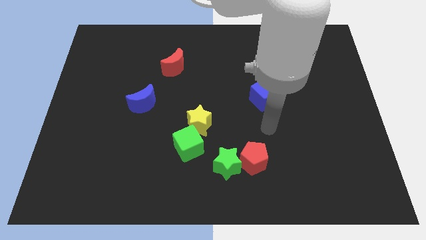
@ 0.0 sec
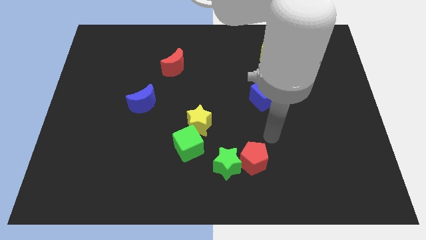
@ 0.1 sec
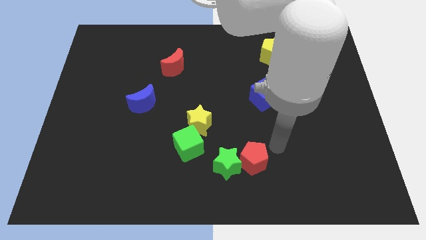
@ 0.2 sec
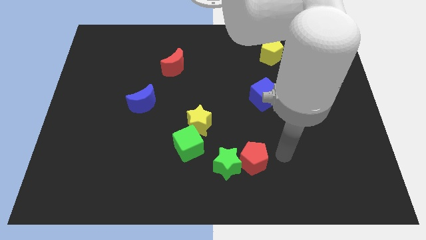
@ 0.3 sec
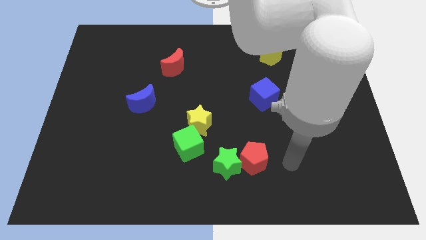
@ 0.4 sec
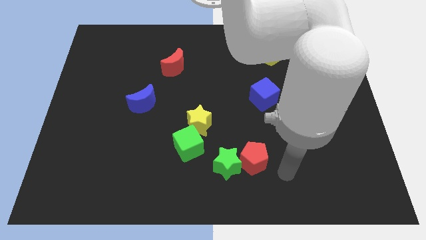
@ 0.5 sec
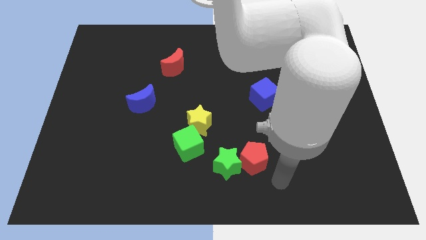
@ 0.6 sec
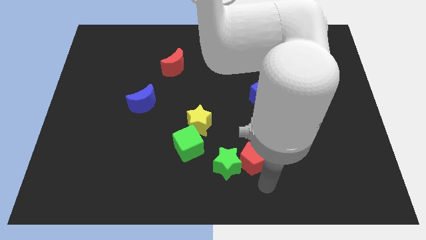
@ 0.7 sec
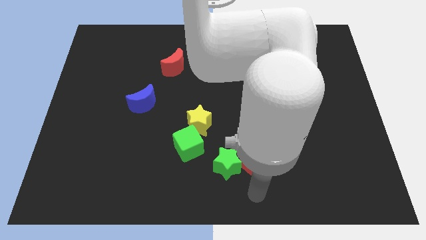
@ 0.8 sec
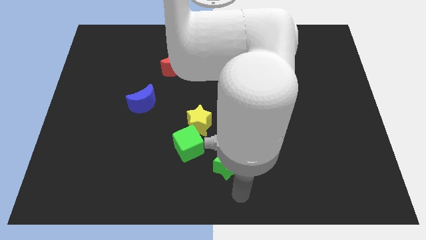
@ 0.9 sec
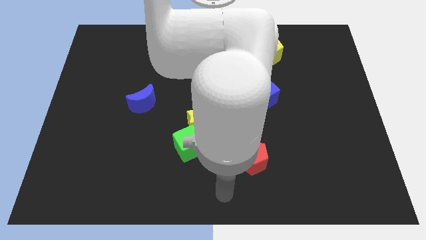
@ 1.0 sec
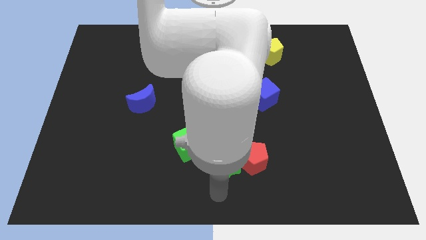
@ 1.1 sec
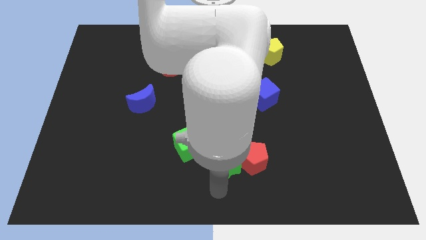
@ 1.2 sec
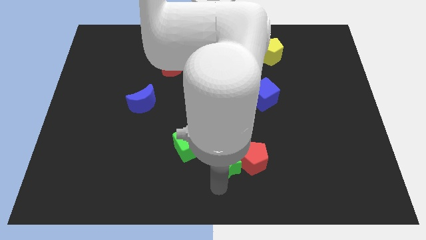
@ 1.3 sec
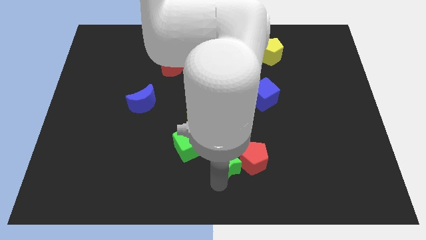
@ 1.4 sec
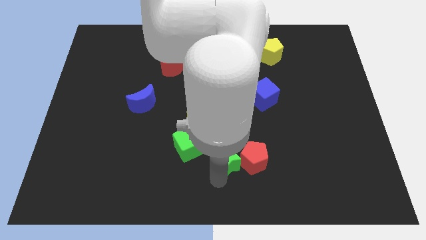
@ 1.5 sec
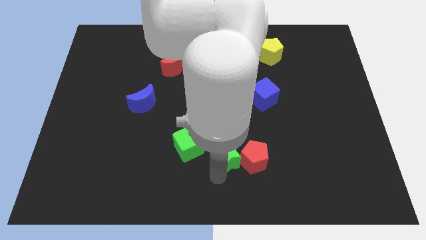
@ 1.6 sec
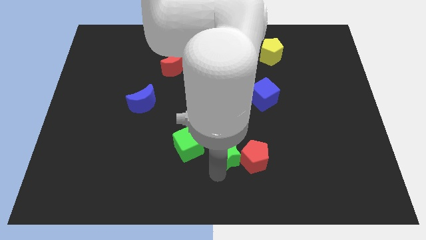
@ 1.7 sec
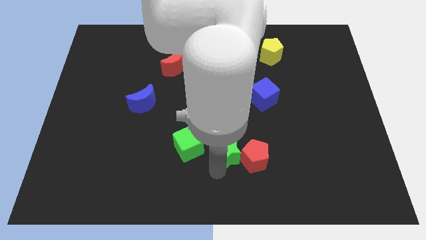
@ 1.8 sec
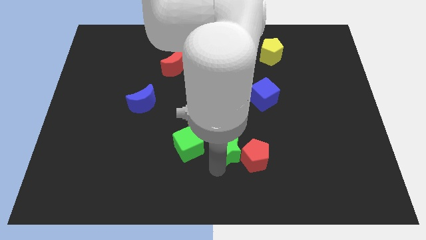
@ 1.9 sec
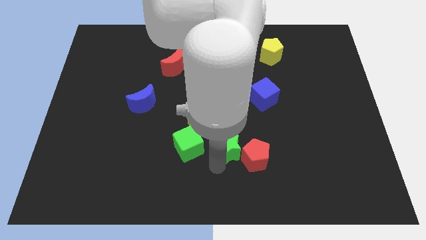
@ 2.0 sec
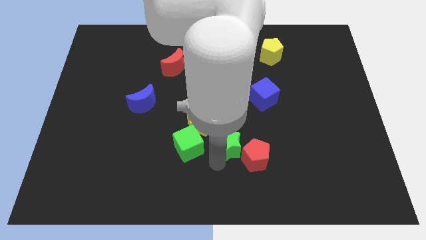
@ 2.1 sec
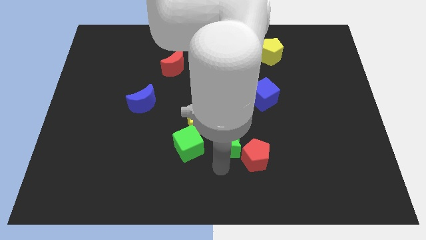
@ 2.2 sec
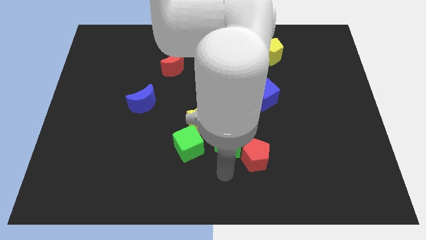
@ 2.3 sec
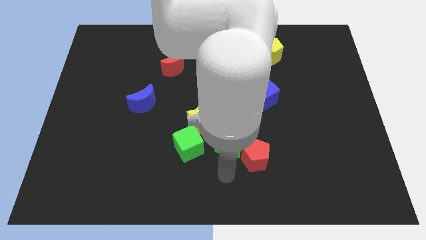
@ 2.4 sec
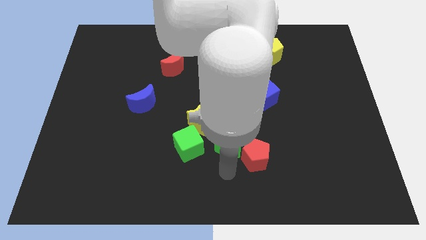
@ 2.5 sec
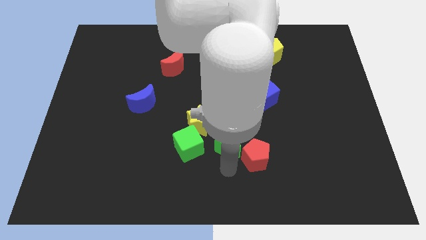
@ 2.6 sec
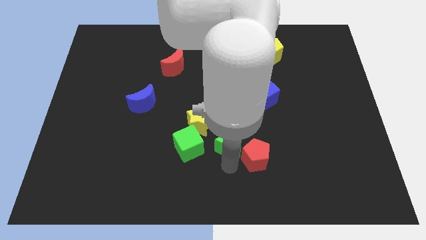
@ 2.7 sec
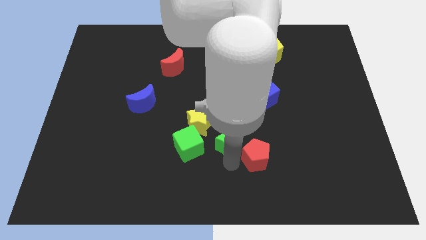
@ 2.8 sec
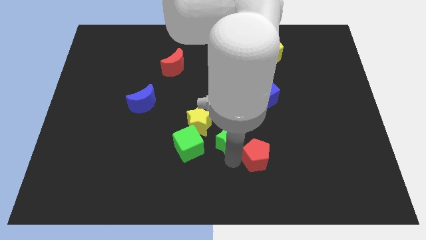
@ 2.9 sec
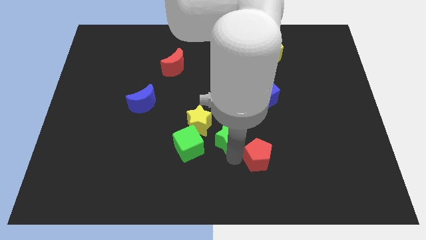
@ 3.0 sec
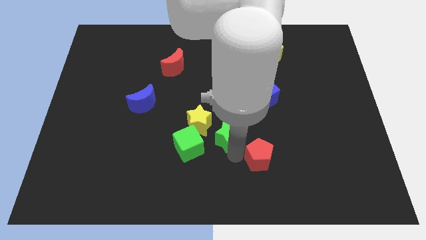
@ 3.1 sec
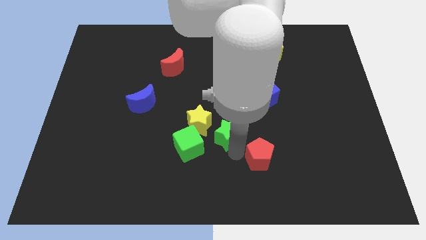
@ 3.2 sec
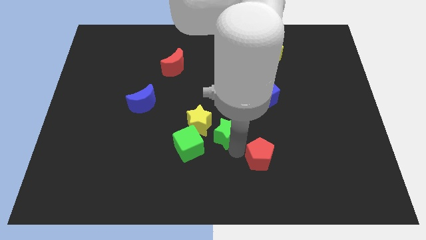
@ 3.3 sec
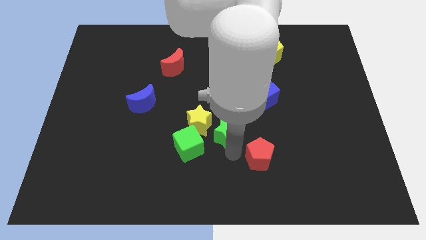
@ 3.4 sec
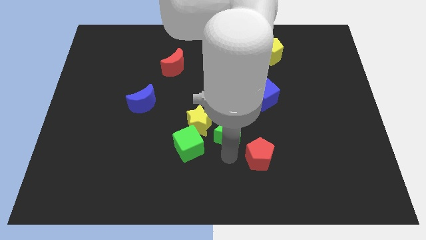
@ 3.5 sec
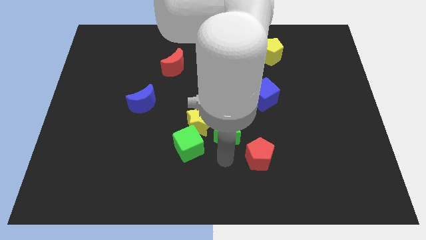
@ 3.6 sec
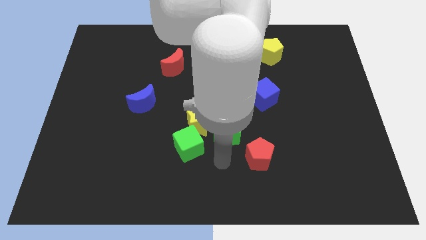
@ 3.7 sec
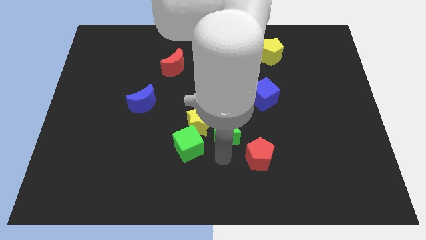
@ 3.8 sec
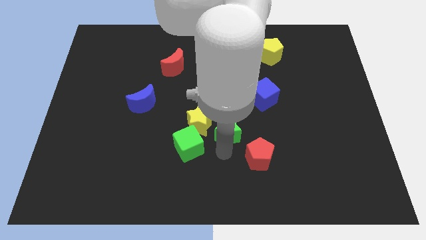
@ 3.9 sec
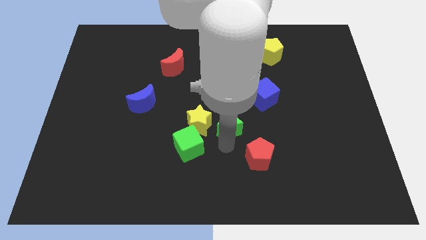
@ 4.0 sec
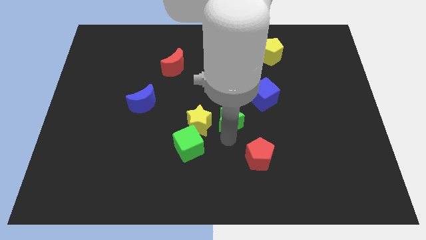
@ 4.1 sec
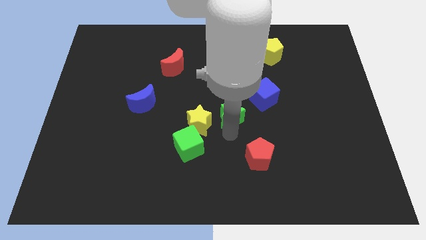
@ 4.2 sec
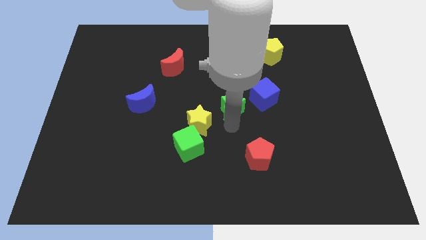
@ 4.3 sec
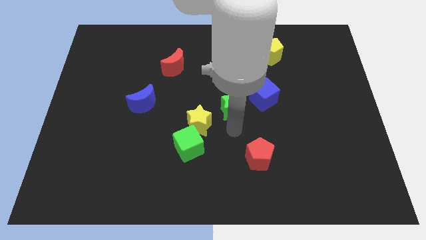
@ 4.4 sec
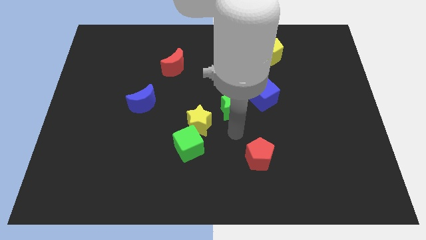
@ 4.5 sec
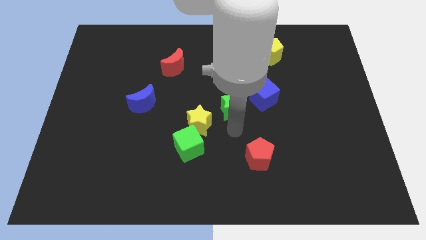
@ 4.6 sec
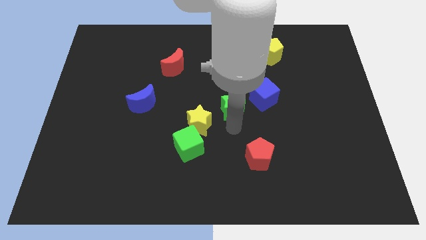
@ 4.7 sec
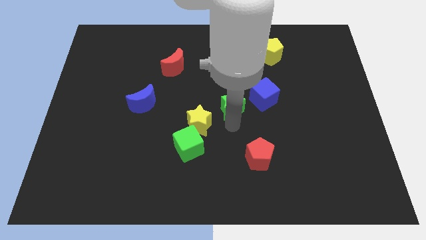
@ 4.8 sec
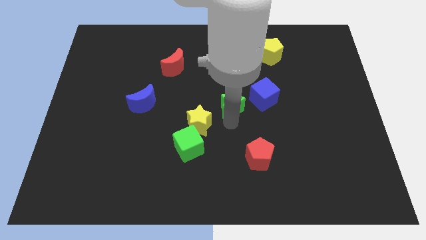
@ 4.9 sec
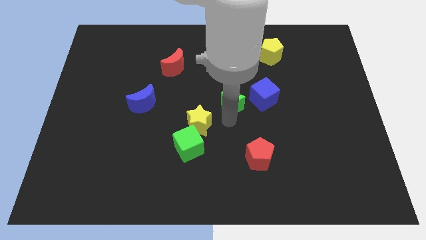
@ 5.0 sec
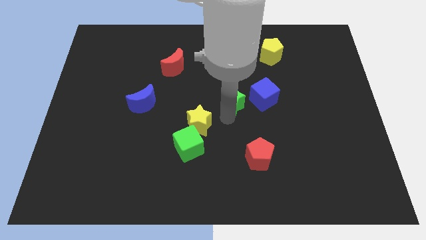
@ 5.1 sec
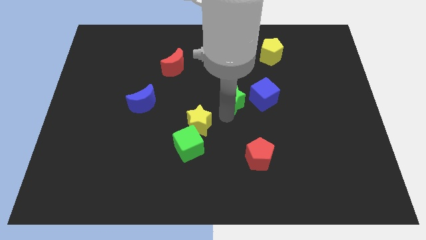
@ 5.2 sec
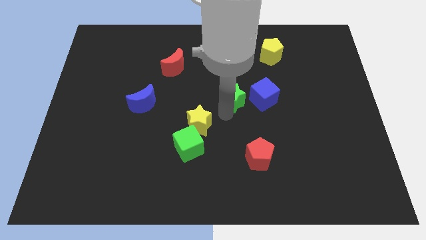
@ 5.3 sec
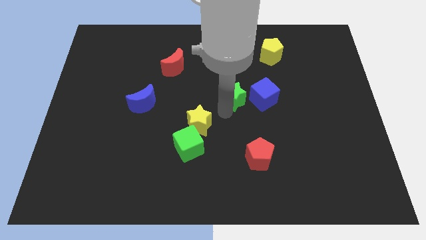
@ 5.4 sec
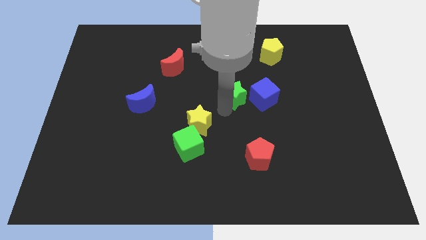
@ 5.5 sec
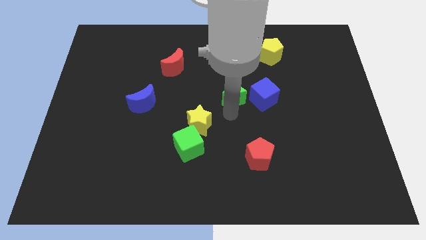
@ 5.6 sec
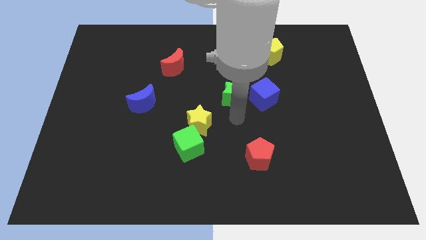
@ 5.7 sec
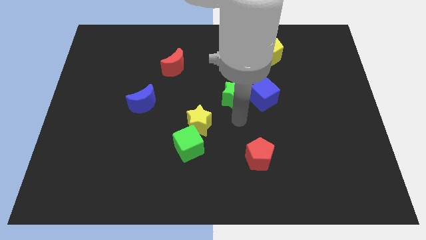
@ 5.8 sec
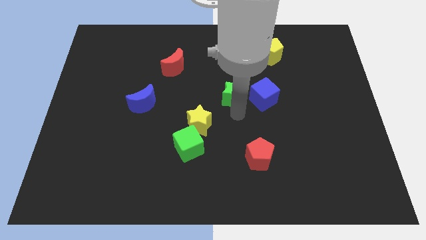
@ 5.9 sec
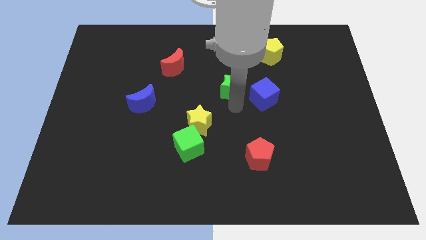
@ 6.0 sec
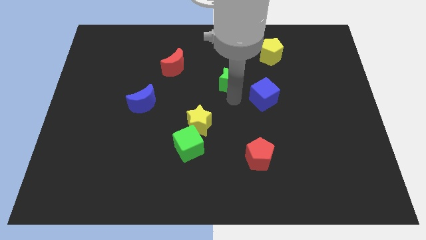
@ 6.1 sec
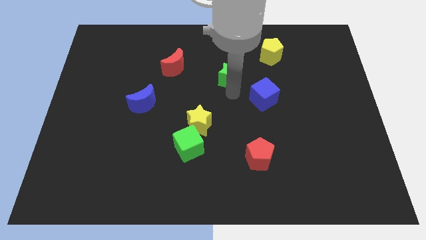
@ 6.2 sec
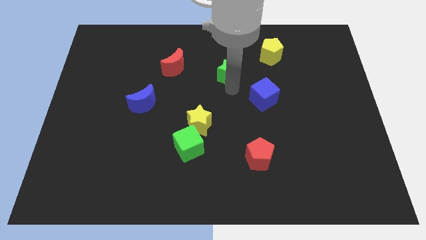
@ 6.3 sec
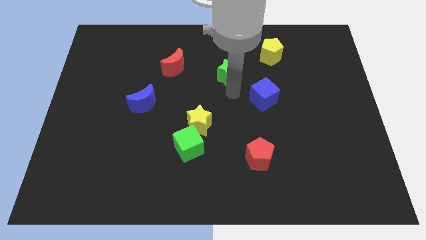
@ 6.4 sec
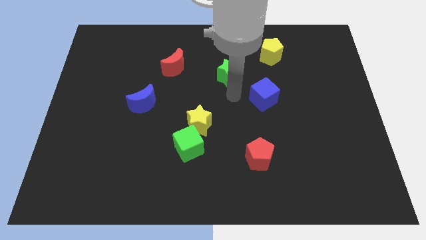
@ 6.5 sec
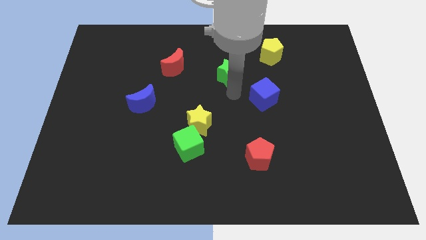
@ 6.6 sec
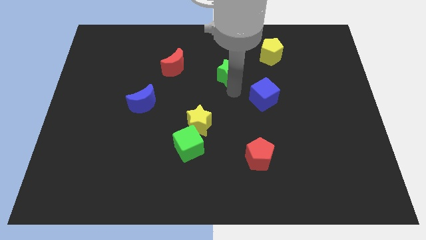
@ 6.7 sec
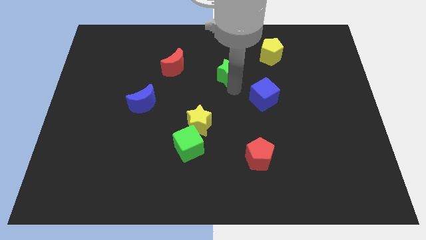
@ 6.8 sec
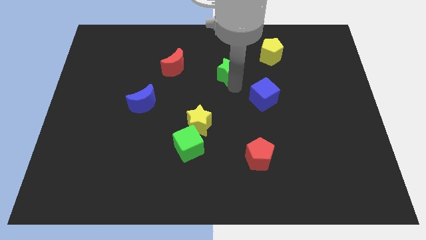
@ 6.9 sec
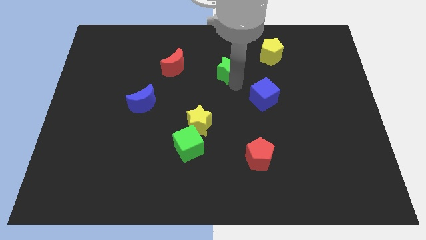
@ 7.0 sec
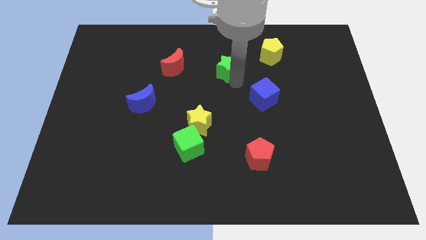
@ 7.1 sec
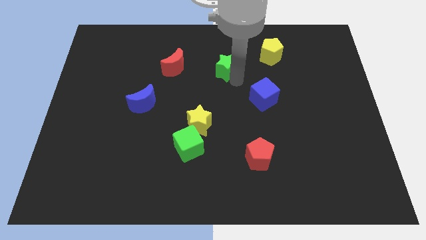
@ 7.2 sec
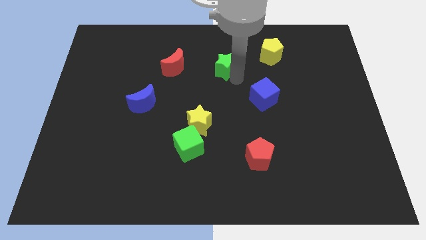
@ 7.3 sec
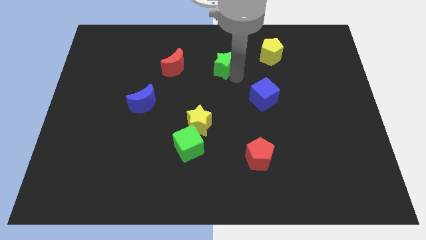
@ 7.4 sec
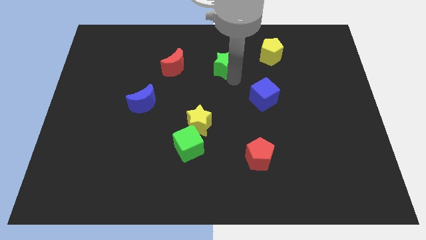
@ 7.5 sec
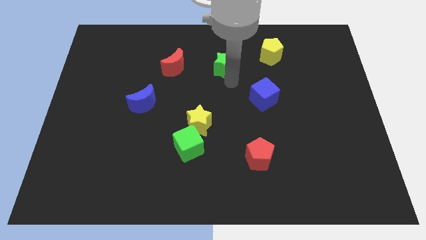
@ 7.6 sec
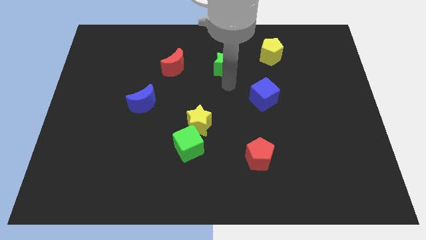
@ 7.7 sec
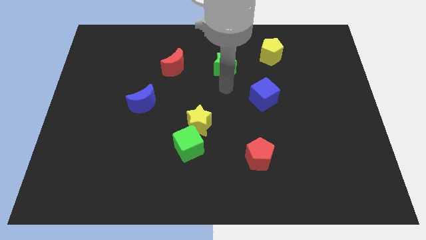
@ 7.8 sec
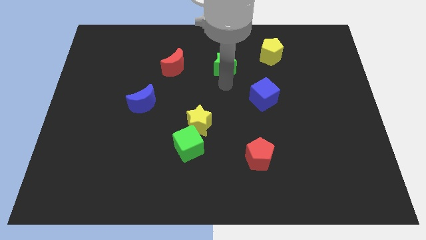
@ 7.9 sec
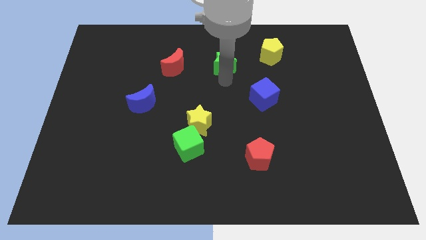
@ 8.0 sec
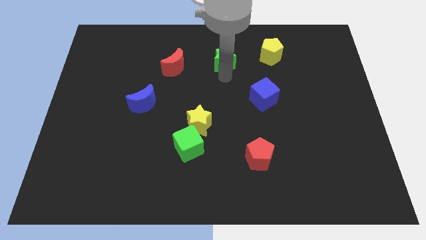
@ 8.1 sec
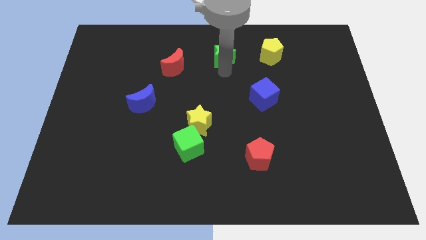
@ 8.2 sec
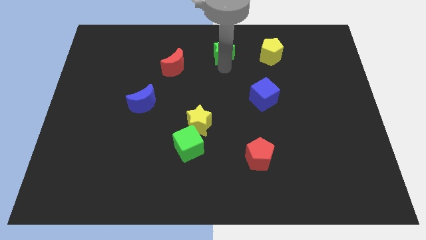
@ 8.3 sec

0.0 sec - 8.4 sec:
move the green star to the towards your base
